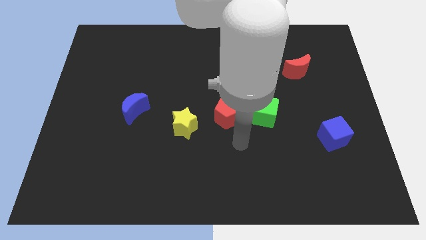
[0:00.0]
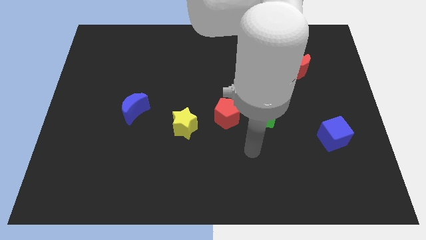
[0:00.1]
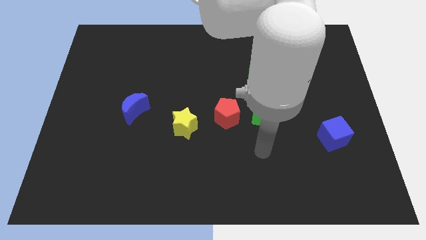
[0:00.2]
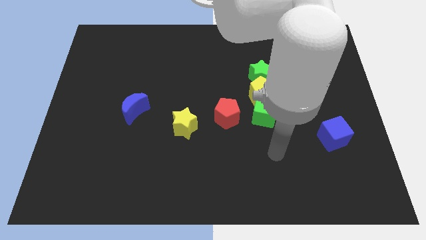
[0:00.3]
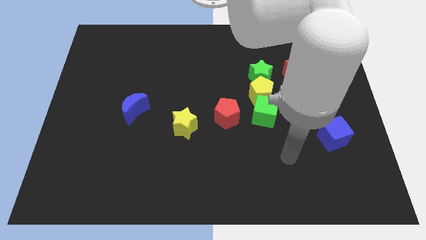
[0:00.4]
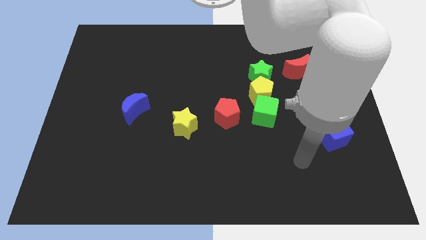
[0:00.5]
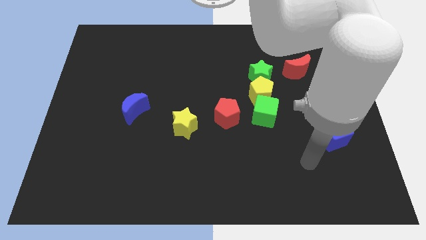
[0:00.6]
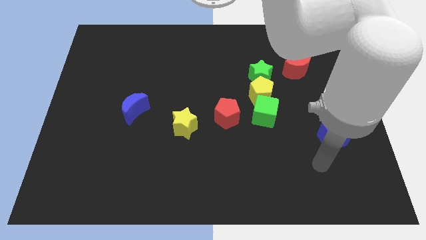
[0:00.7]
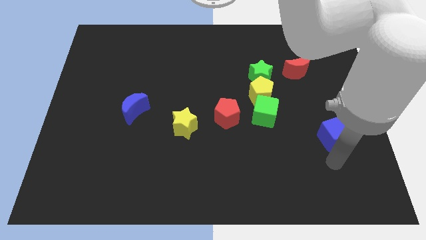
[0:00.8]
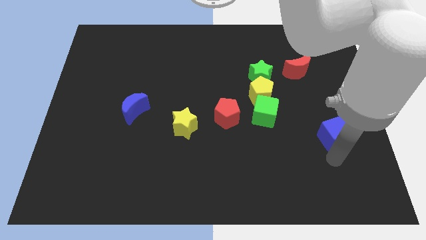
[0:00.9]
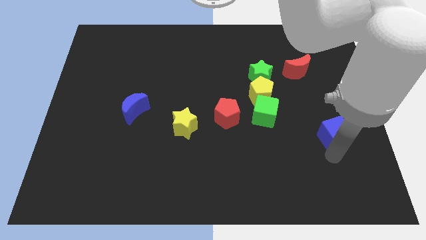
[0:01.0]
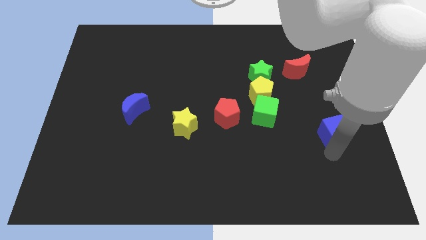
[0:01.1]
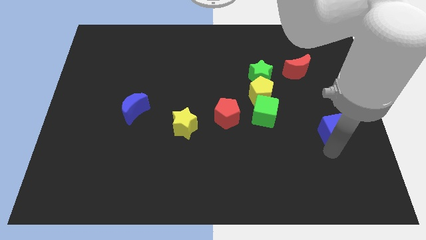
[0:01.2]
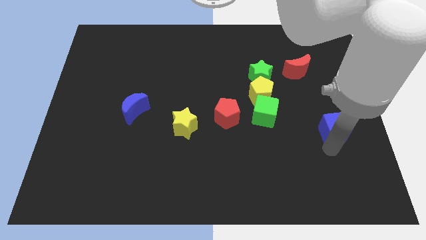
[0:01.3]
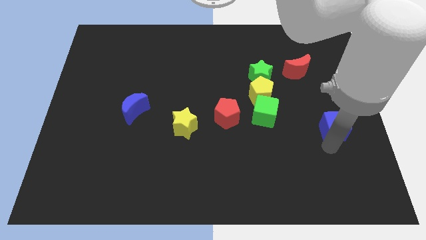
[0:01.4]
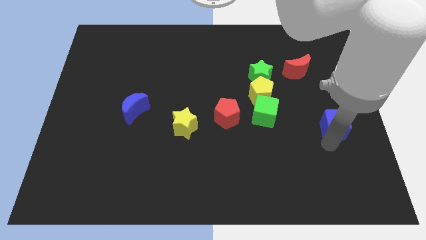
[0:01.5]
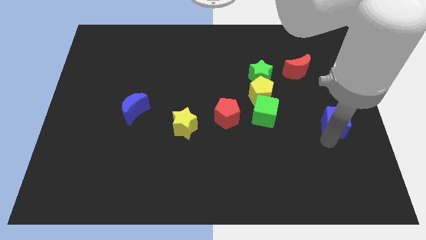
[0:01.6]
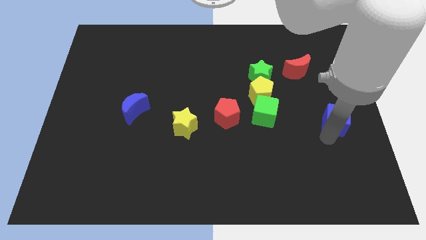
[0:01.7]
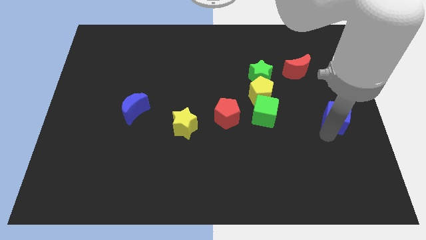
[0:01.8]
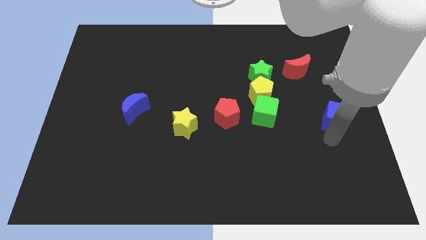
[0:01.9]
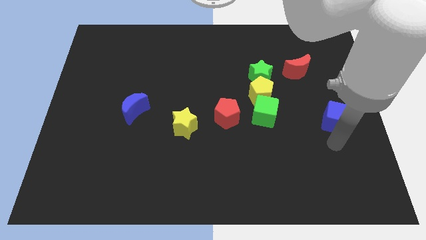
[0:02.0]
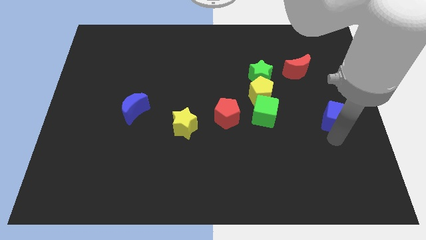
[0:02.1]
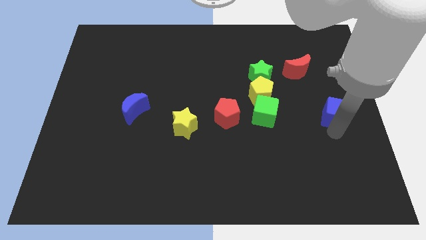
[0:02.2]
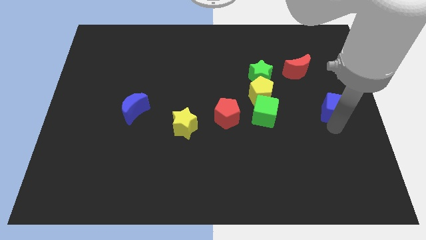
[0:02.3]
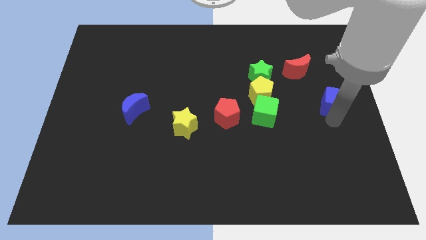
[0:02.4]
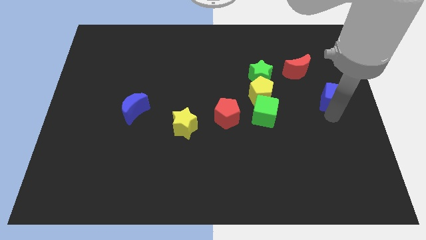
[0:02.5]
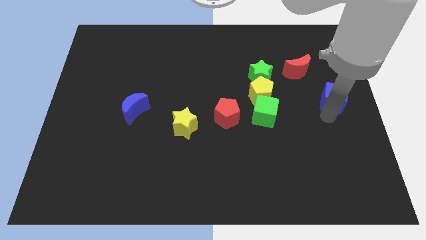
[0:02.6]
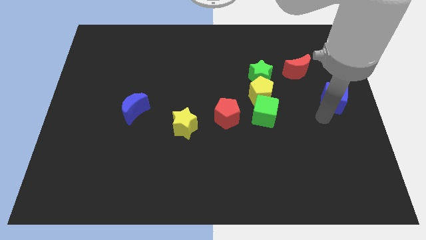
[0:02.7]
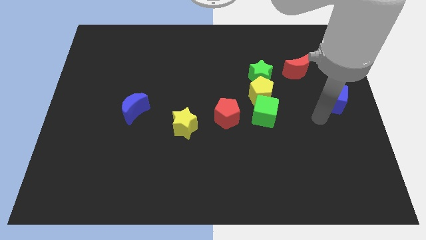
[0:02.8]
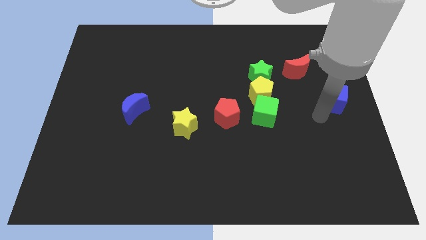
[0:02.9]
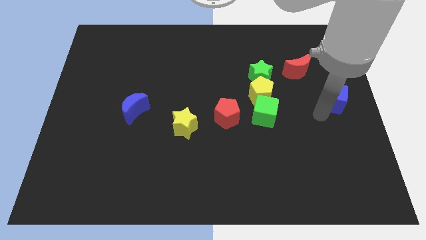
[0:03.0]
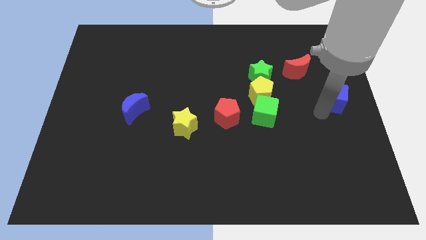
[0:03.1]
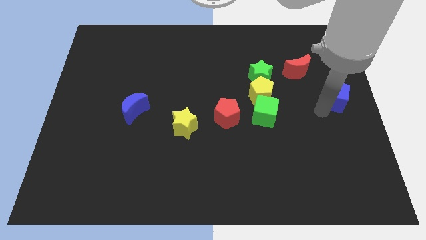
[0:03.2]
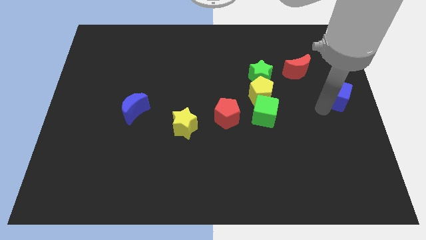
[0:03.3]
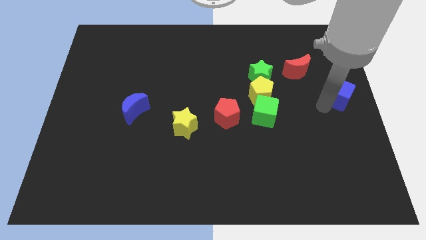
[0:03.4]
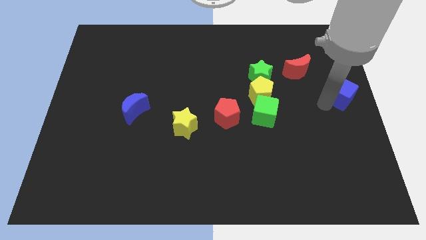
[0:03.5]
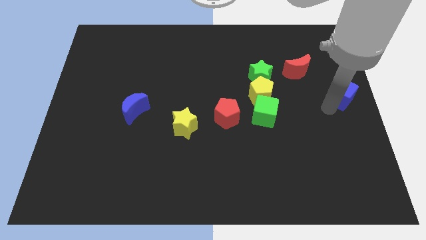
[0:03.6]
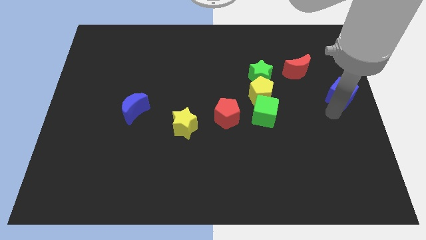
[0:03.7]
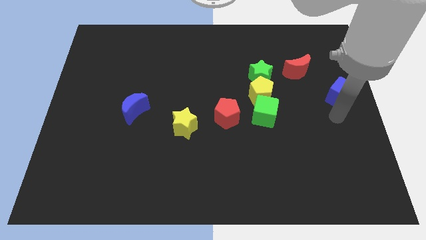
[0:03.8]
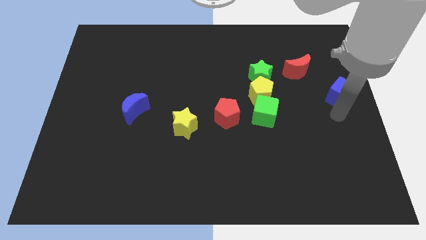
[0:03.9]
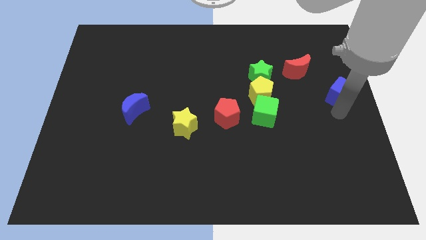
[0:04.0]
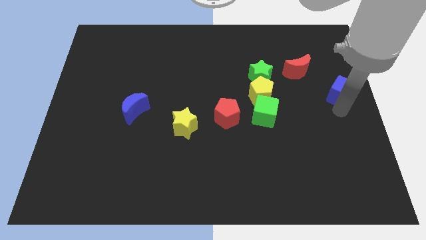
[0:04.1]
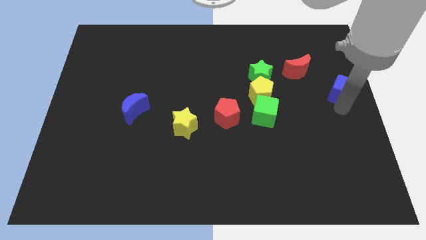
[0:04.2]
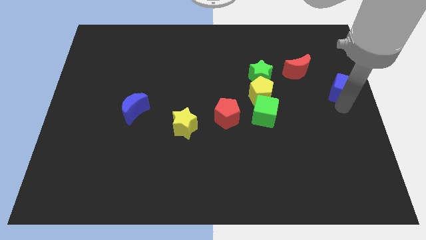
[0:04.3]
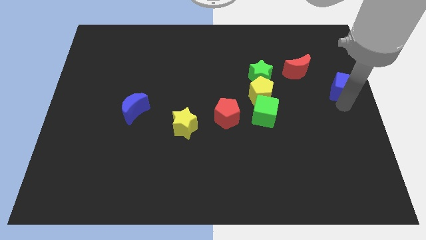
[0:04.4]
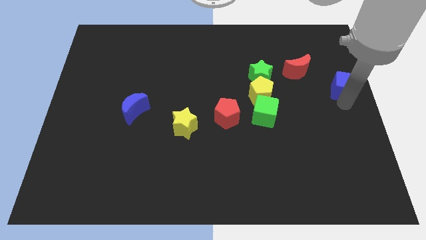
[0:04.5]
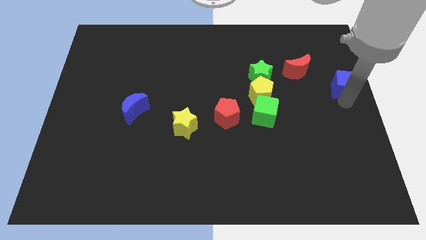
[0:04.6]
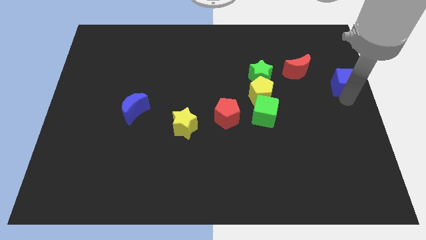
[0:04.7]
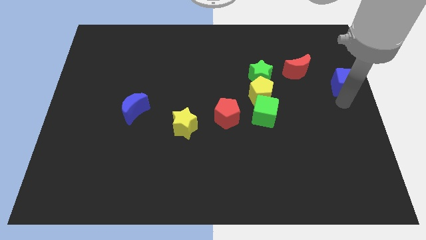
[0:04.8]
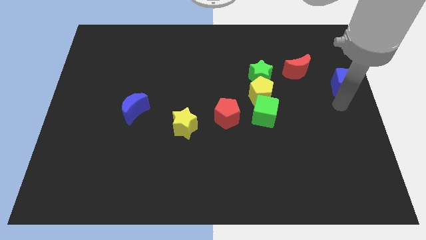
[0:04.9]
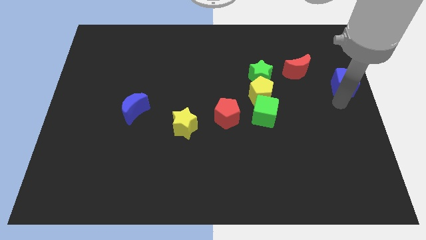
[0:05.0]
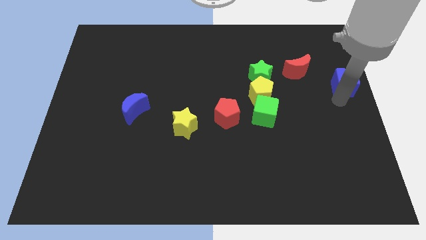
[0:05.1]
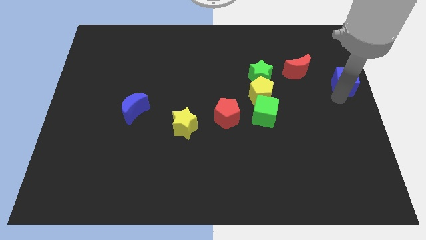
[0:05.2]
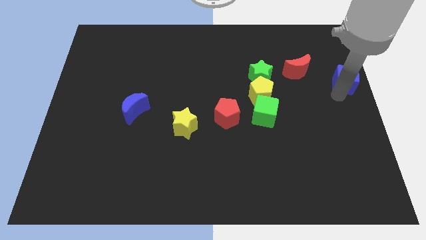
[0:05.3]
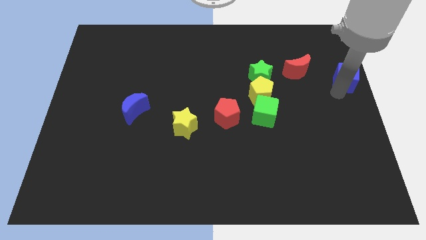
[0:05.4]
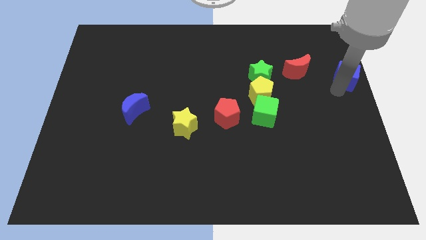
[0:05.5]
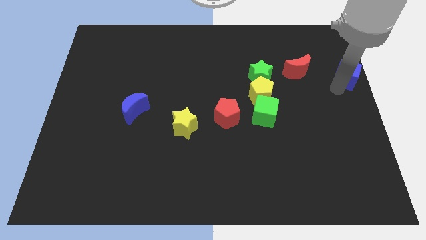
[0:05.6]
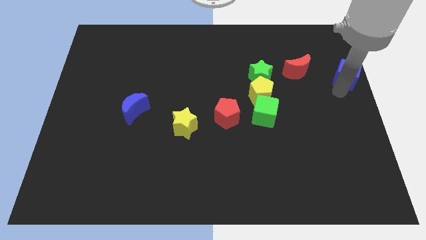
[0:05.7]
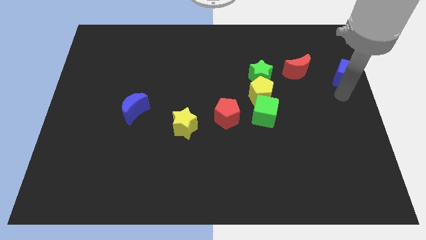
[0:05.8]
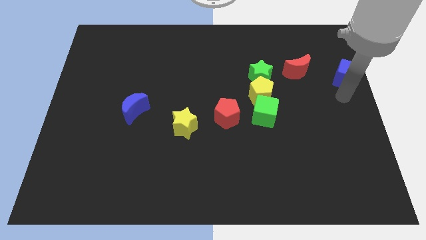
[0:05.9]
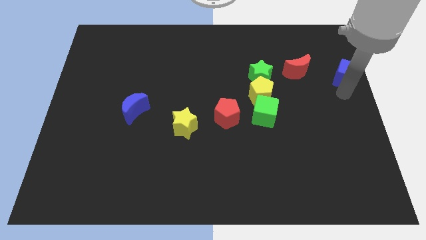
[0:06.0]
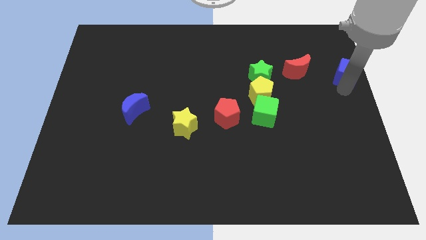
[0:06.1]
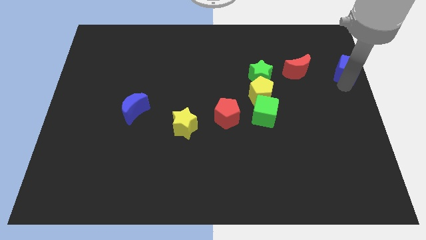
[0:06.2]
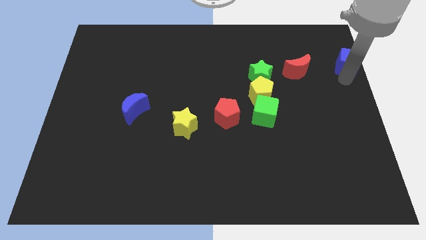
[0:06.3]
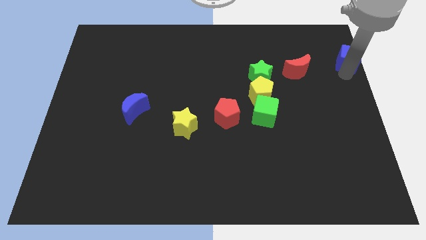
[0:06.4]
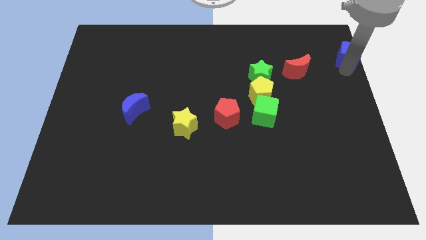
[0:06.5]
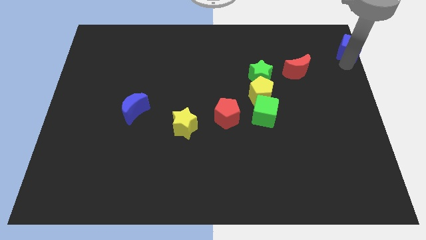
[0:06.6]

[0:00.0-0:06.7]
push the blue cube to the top right of the board
